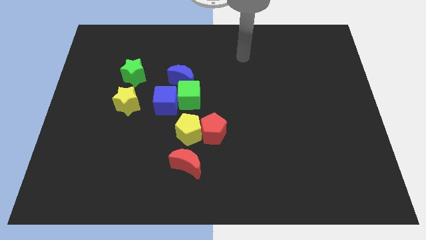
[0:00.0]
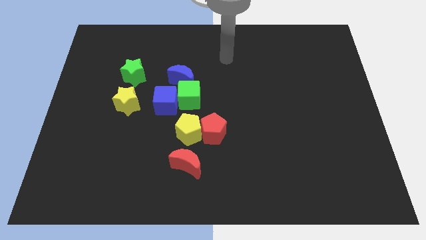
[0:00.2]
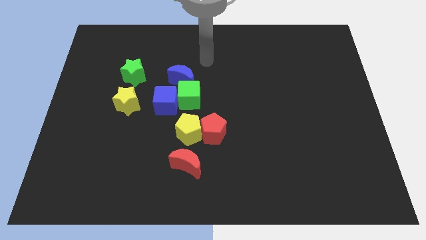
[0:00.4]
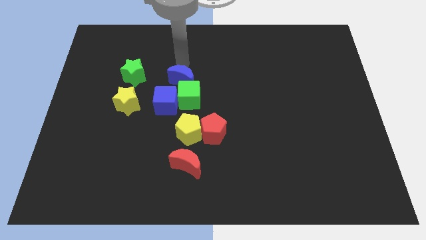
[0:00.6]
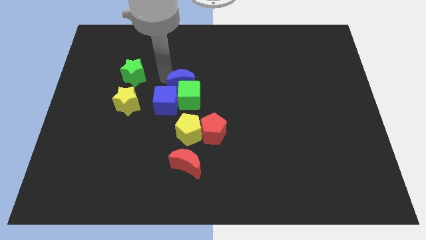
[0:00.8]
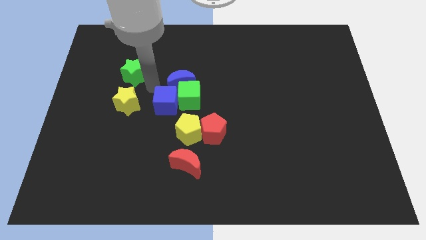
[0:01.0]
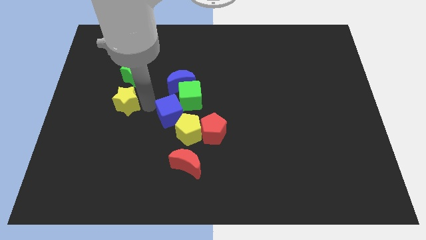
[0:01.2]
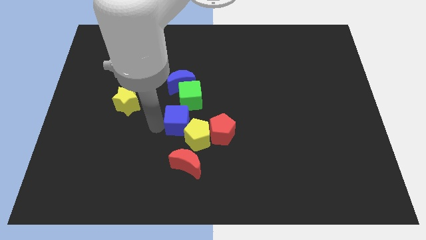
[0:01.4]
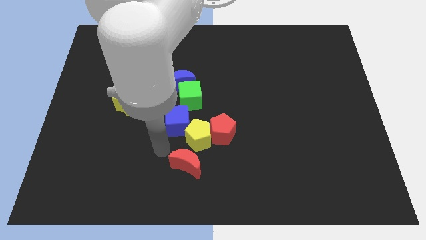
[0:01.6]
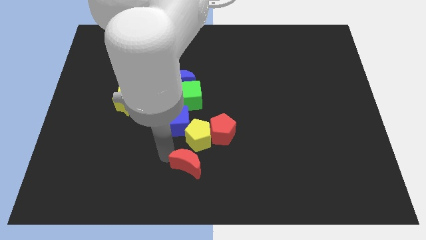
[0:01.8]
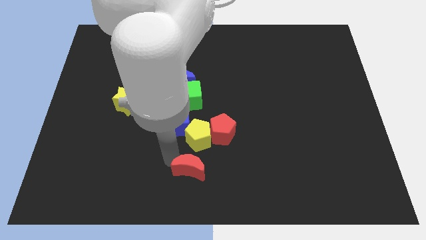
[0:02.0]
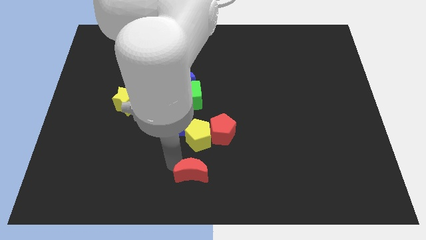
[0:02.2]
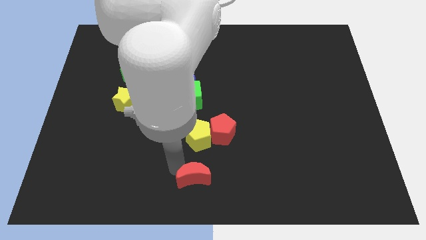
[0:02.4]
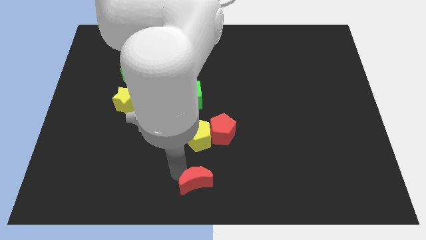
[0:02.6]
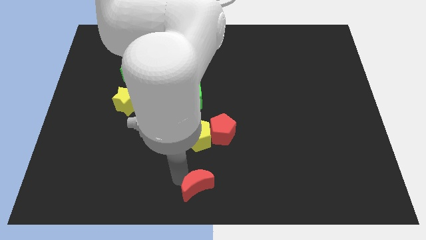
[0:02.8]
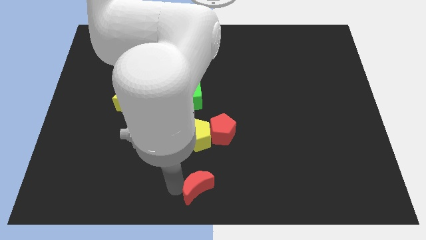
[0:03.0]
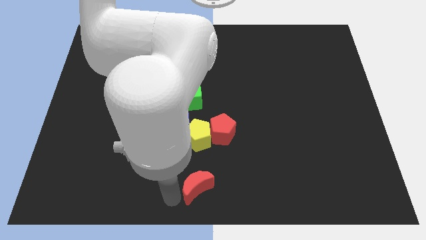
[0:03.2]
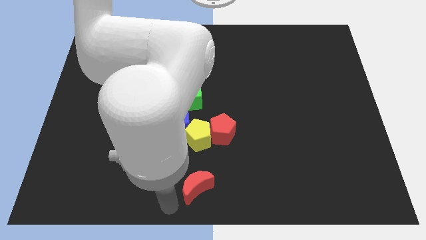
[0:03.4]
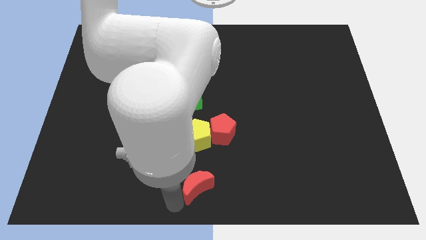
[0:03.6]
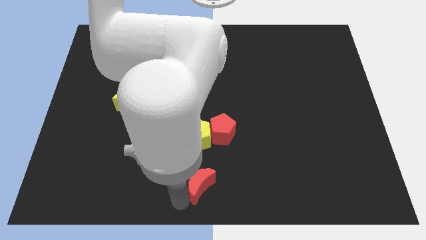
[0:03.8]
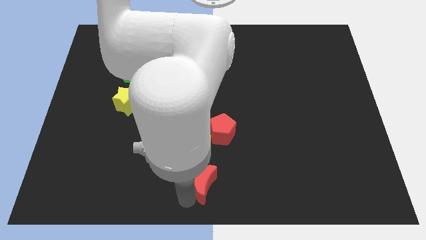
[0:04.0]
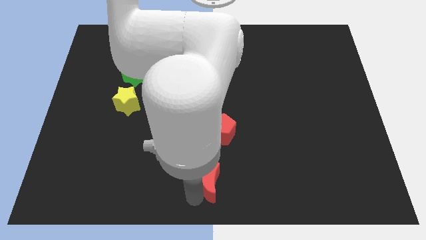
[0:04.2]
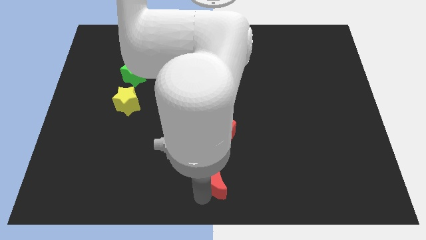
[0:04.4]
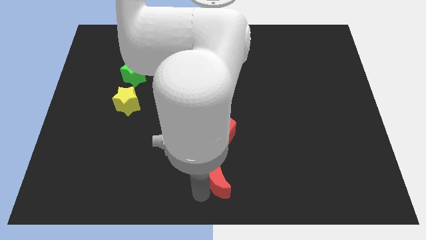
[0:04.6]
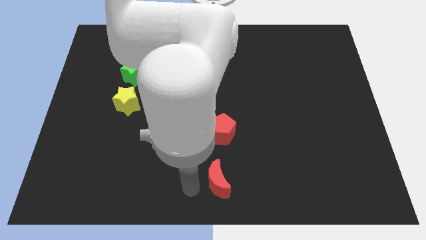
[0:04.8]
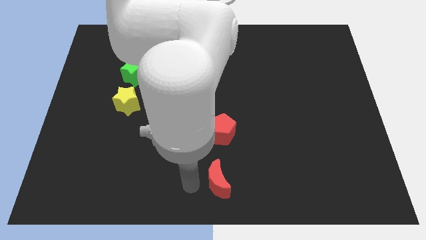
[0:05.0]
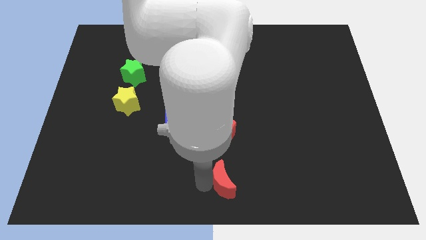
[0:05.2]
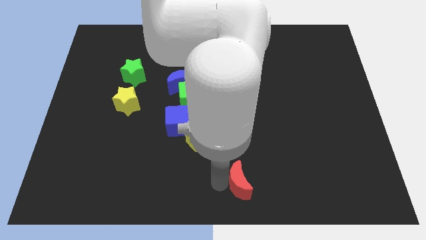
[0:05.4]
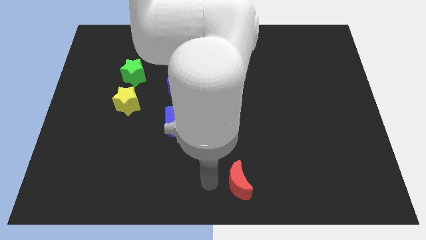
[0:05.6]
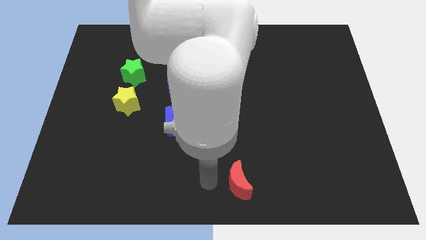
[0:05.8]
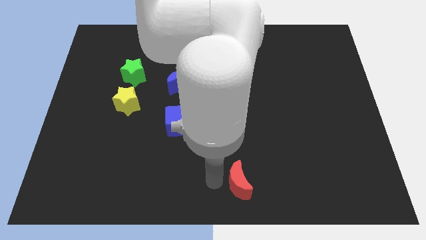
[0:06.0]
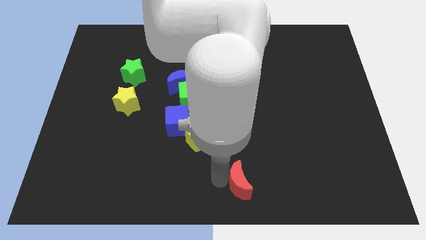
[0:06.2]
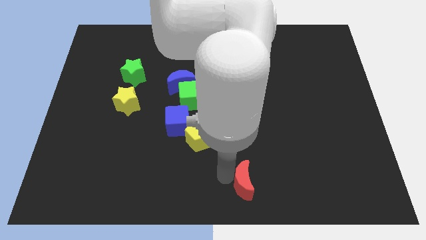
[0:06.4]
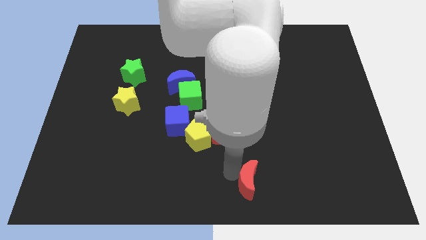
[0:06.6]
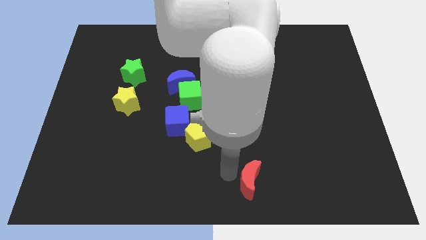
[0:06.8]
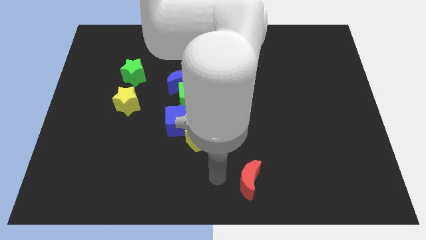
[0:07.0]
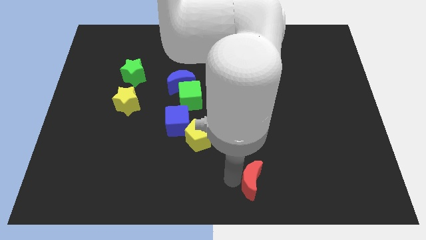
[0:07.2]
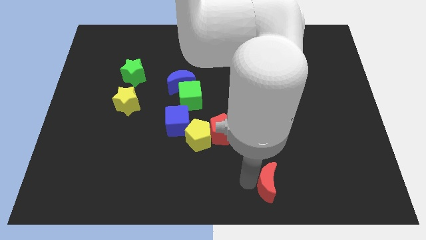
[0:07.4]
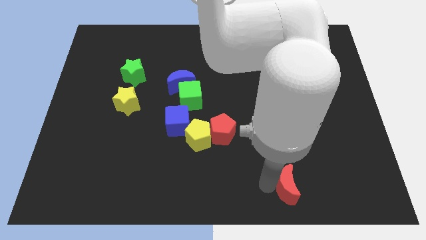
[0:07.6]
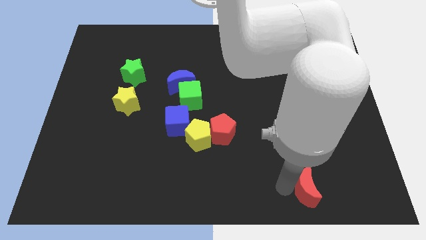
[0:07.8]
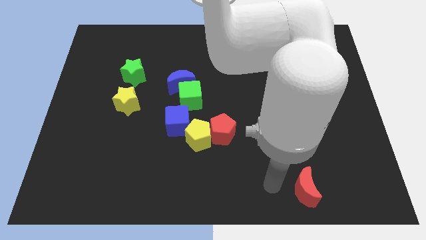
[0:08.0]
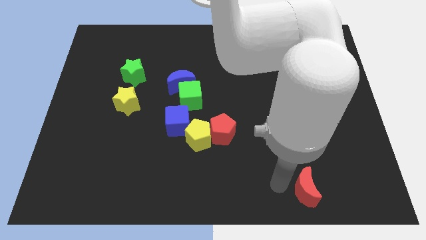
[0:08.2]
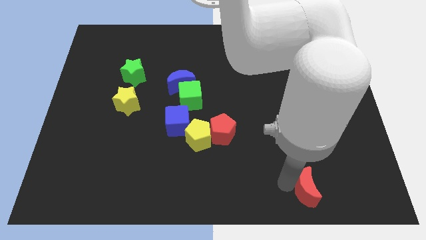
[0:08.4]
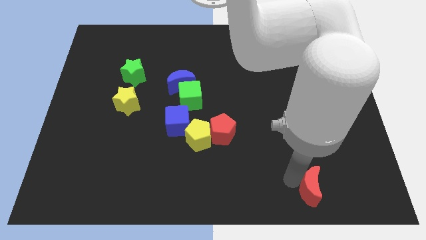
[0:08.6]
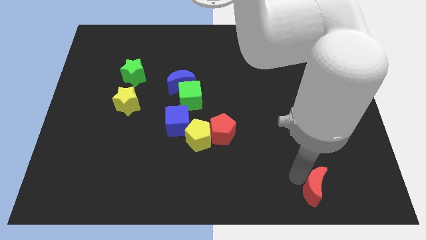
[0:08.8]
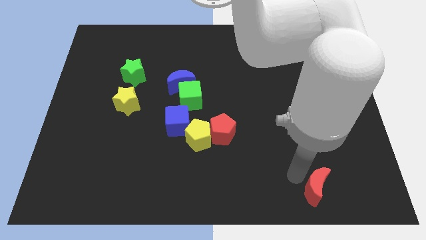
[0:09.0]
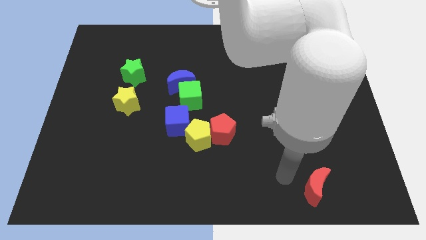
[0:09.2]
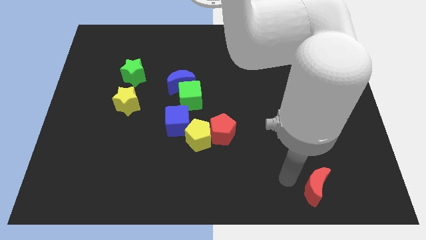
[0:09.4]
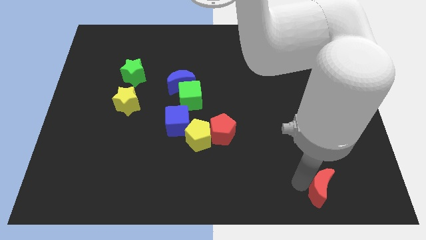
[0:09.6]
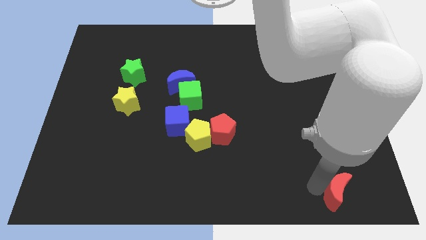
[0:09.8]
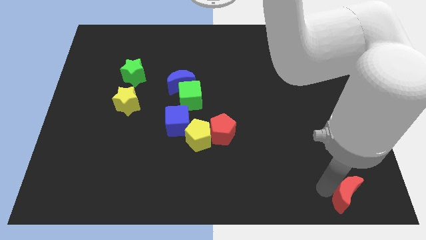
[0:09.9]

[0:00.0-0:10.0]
put the red moon to the bottom right corner

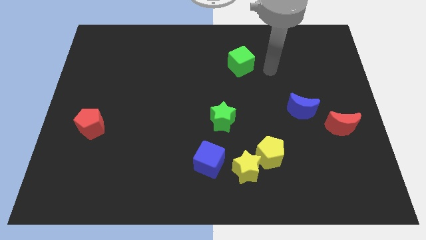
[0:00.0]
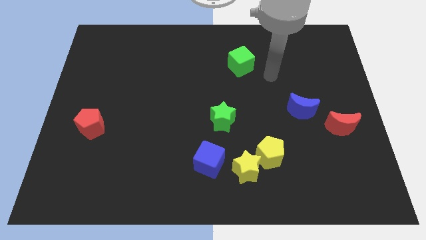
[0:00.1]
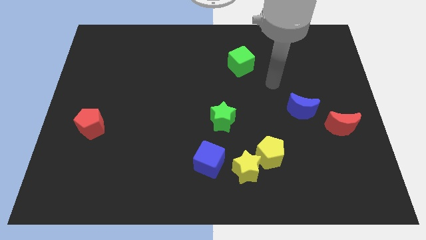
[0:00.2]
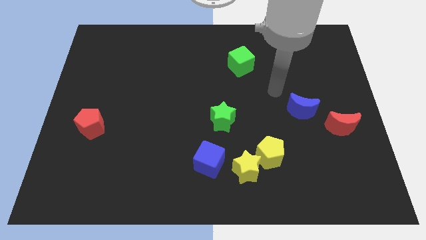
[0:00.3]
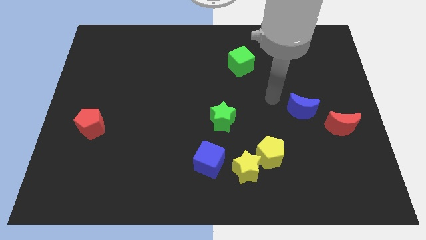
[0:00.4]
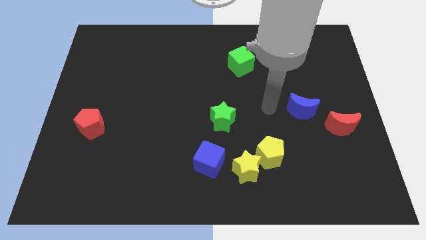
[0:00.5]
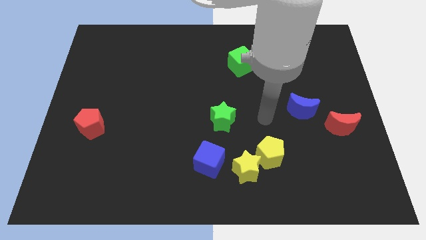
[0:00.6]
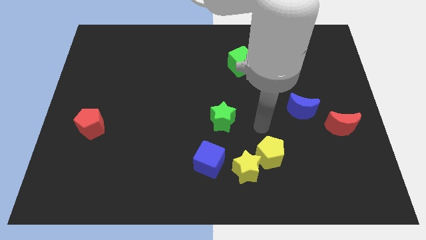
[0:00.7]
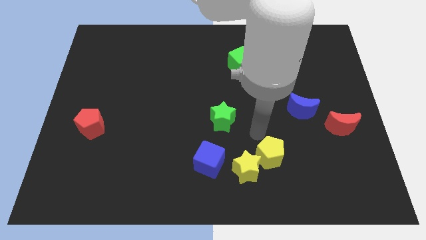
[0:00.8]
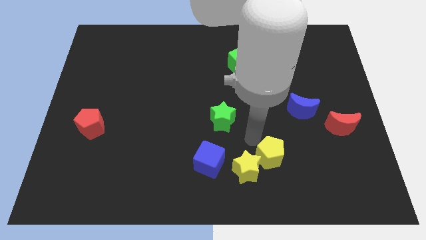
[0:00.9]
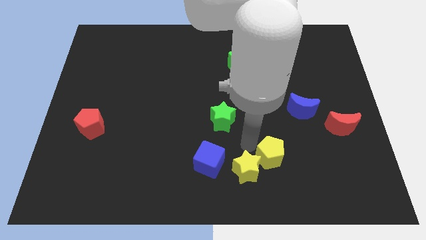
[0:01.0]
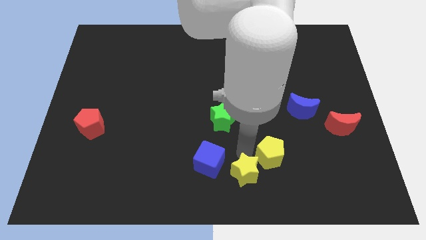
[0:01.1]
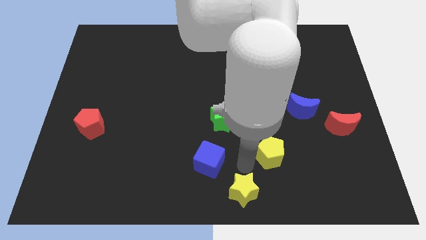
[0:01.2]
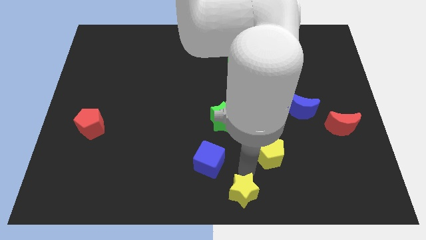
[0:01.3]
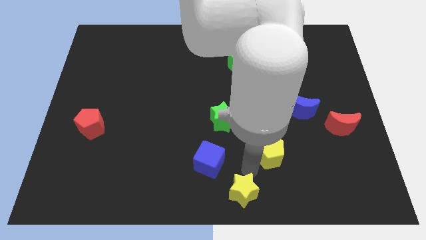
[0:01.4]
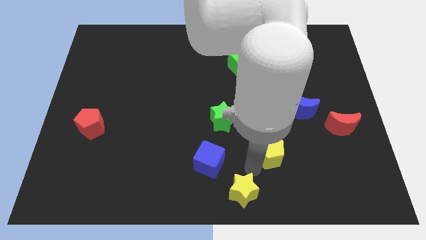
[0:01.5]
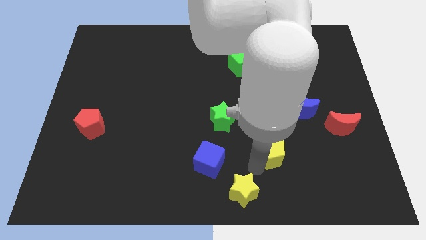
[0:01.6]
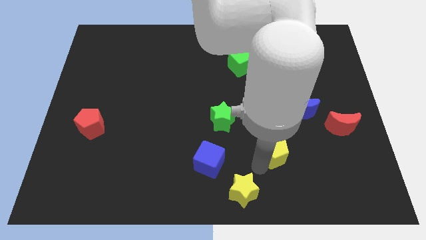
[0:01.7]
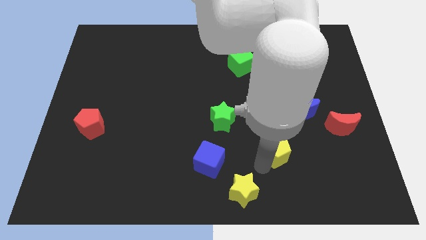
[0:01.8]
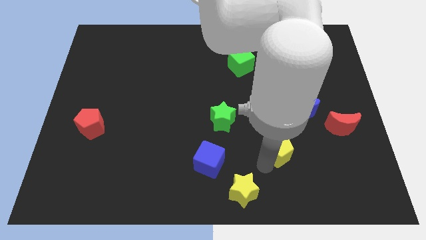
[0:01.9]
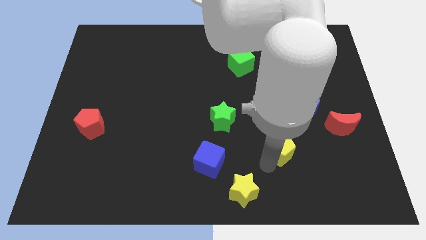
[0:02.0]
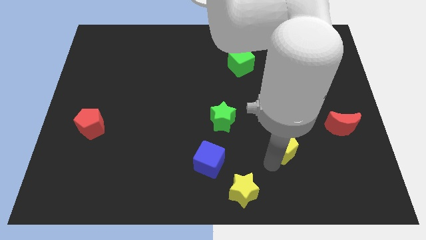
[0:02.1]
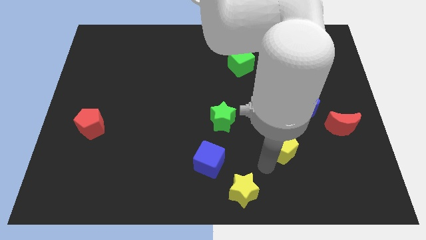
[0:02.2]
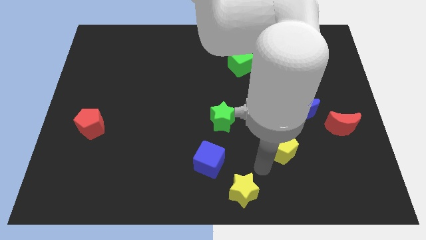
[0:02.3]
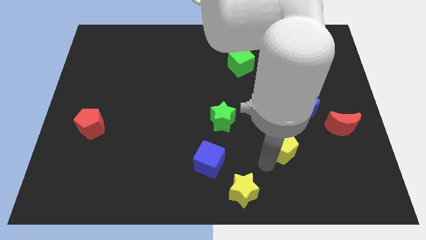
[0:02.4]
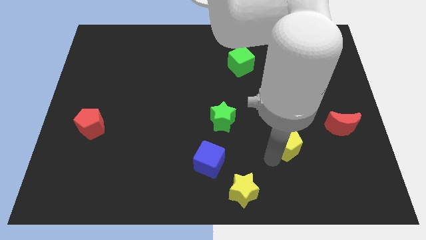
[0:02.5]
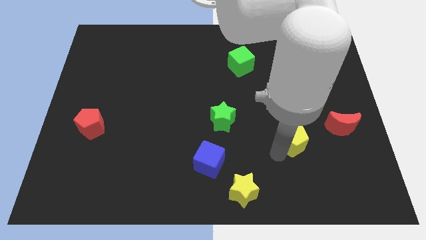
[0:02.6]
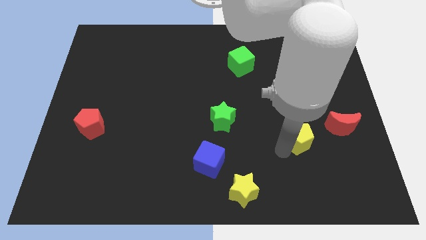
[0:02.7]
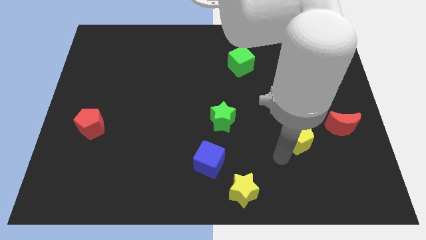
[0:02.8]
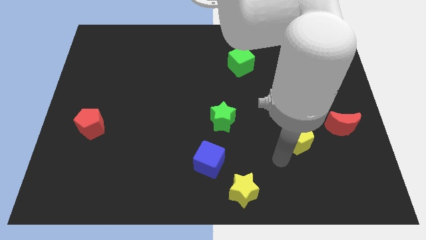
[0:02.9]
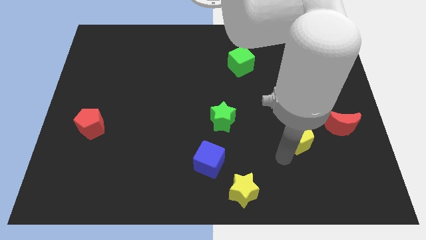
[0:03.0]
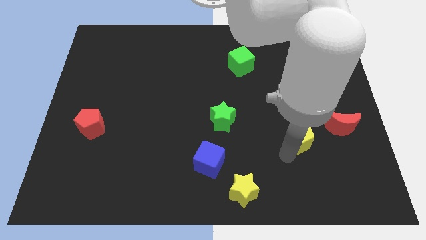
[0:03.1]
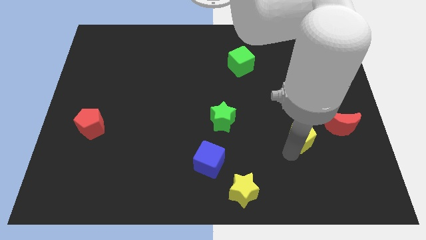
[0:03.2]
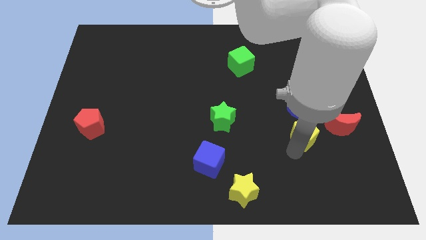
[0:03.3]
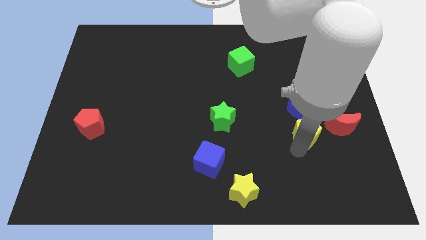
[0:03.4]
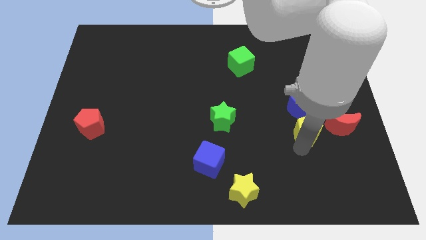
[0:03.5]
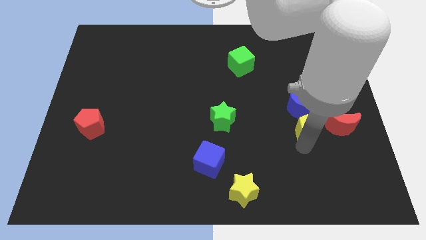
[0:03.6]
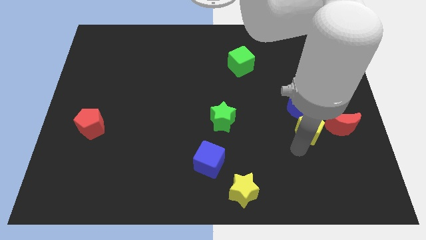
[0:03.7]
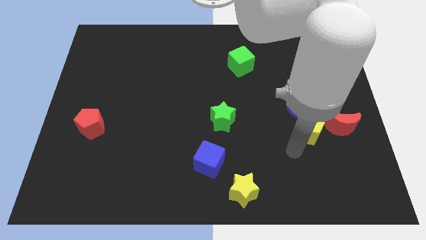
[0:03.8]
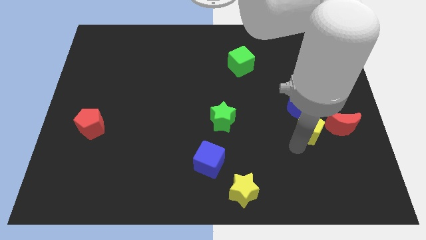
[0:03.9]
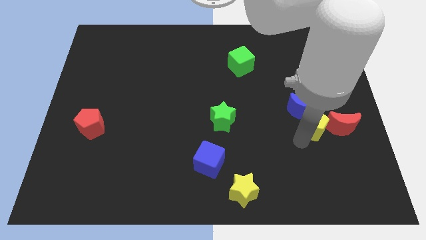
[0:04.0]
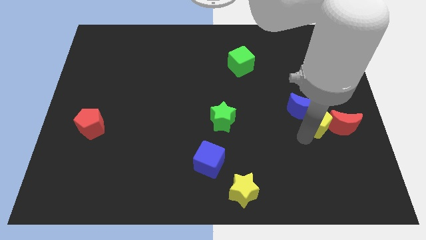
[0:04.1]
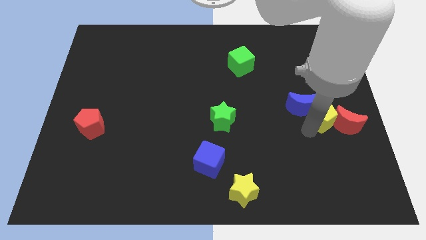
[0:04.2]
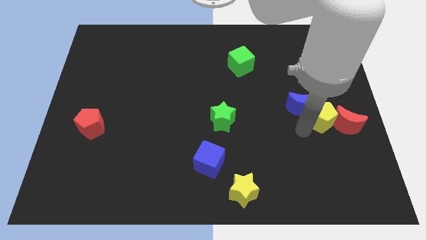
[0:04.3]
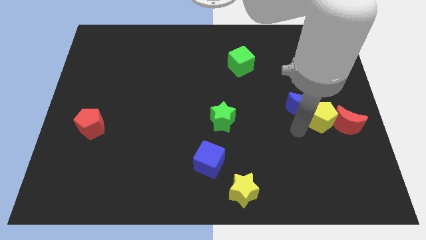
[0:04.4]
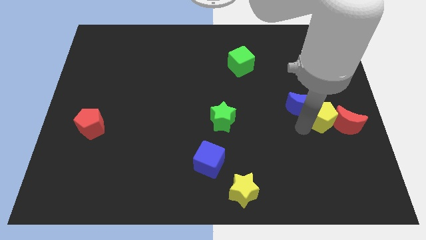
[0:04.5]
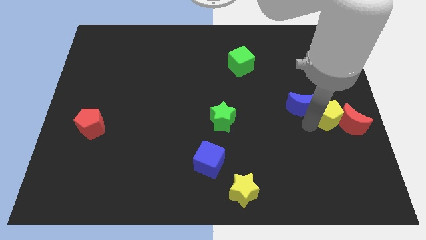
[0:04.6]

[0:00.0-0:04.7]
move the yellow pentagon to the right side
